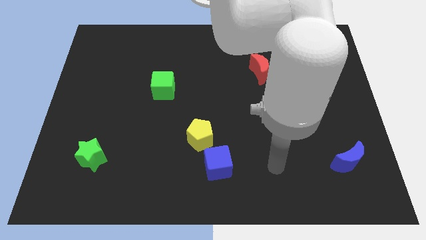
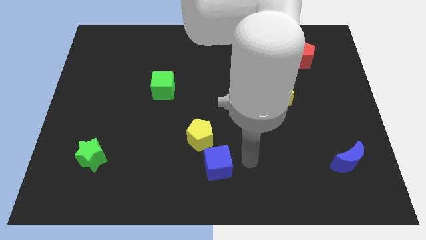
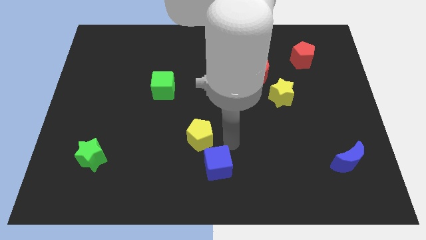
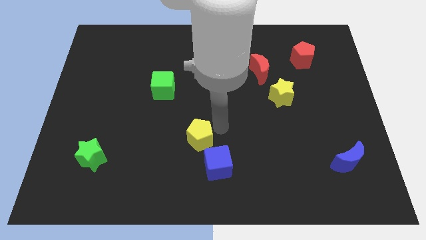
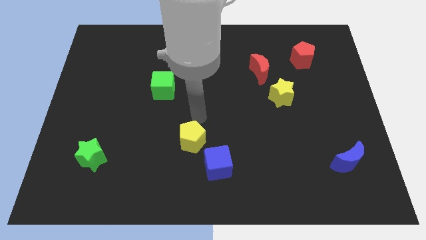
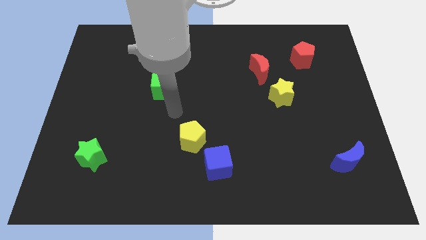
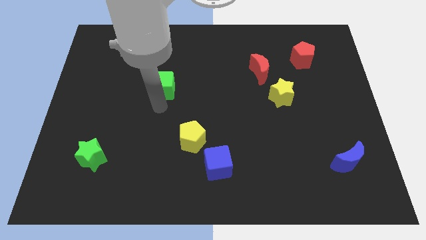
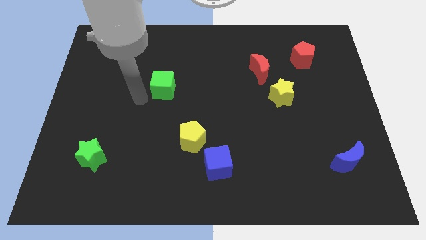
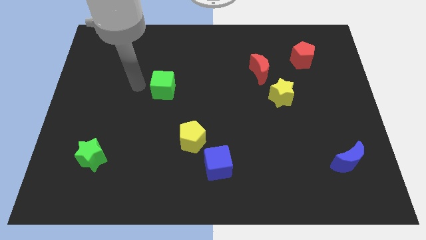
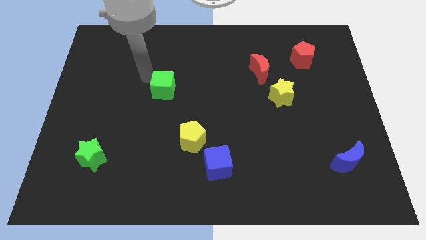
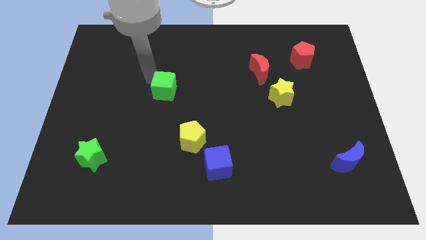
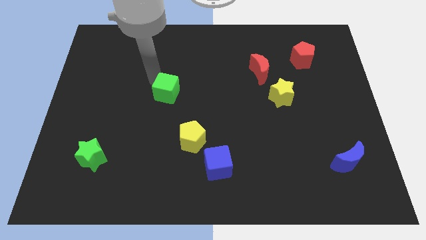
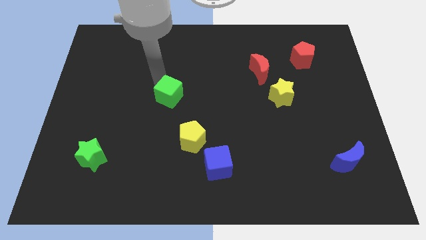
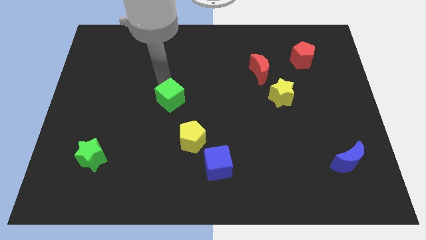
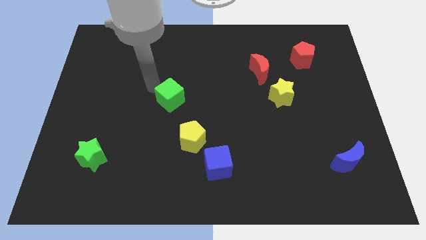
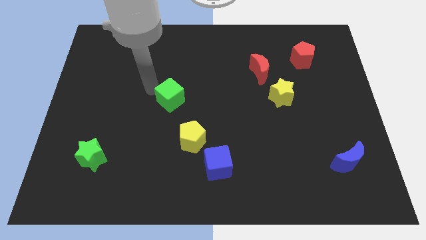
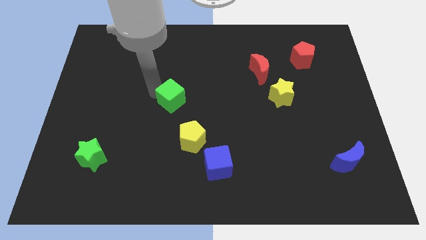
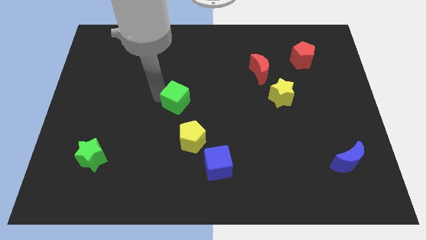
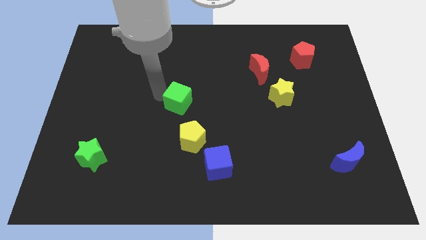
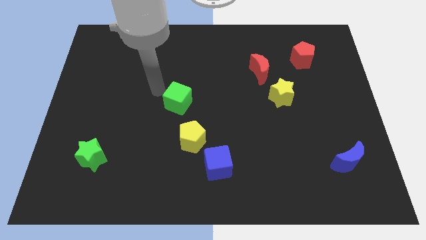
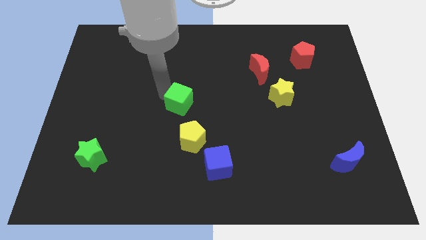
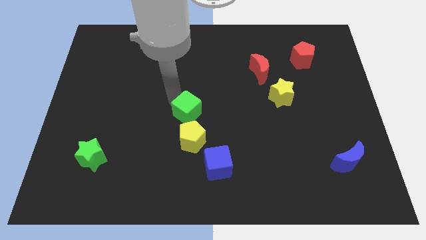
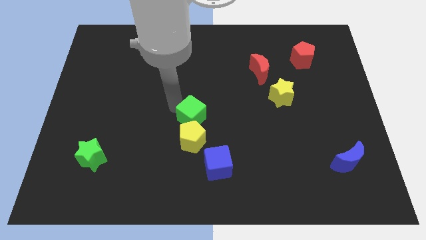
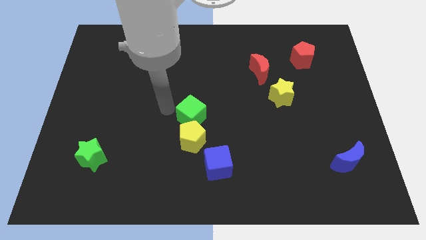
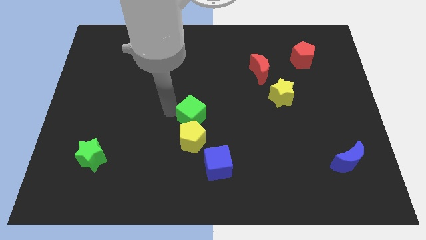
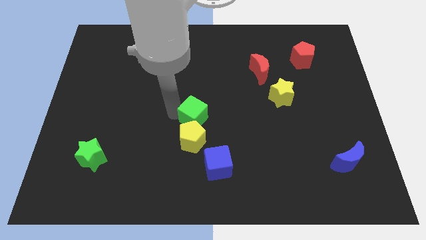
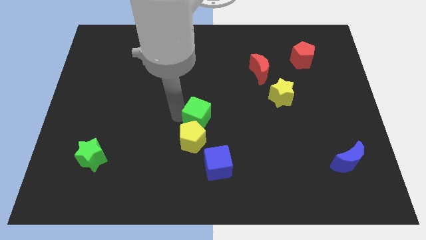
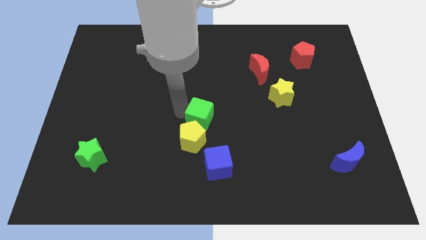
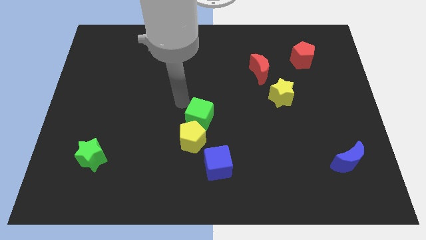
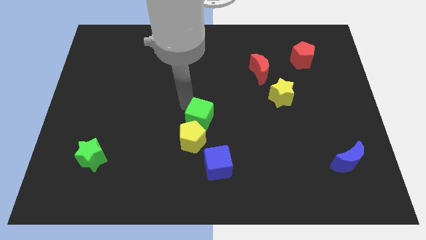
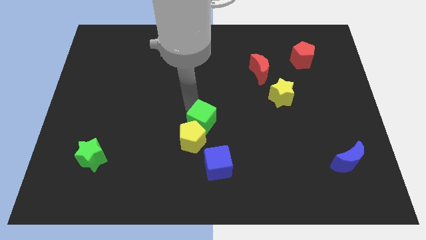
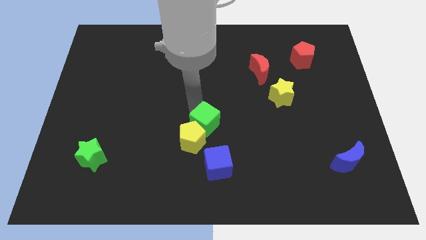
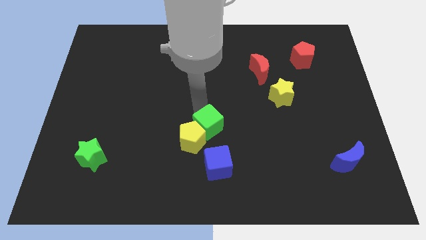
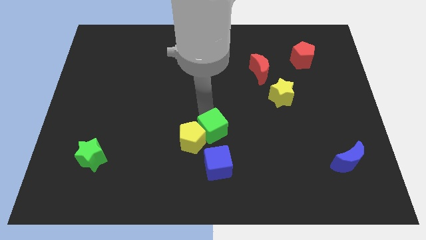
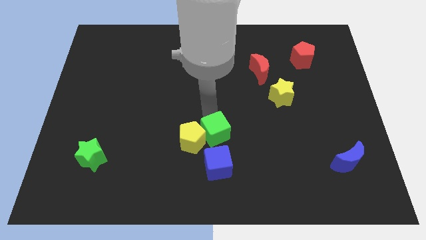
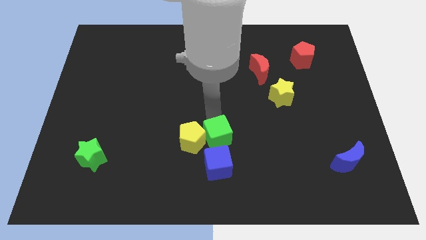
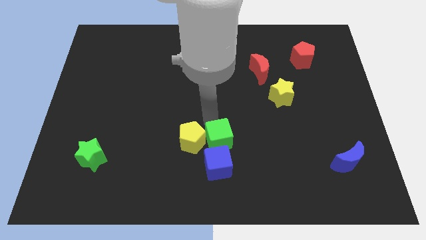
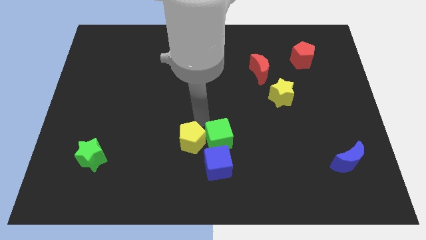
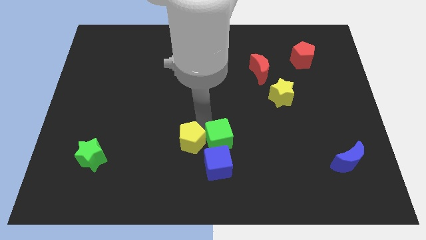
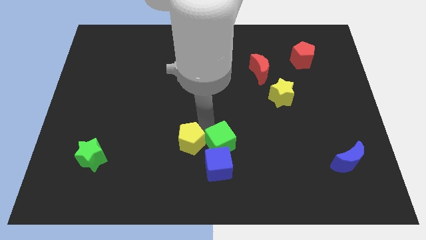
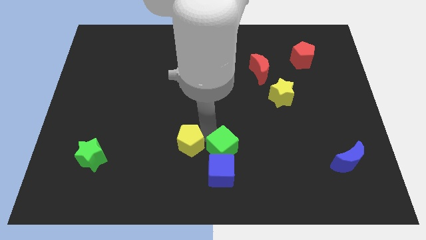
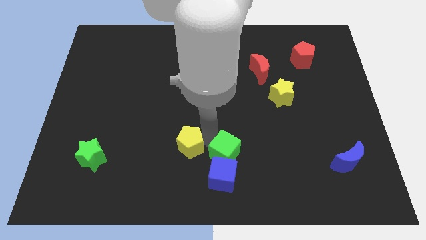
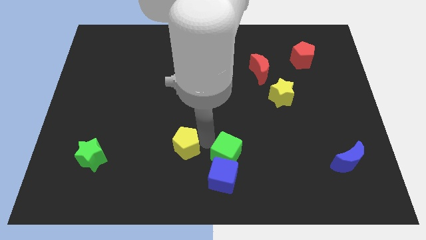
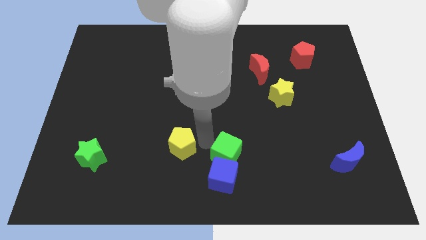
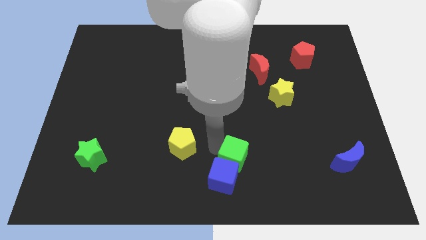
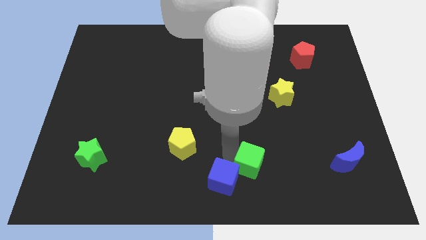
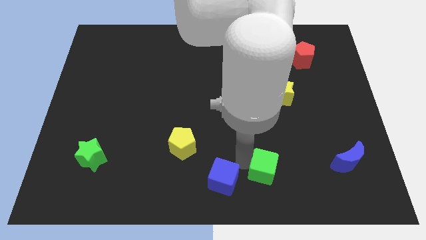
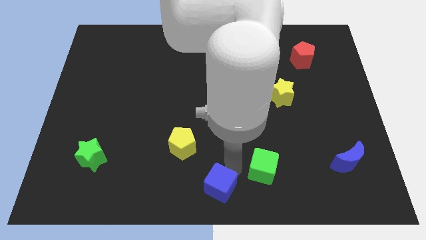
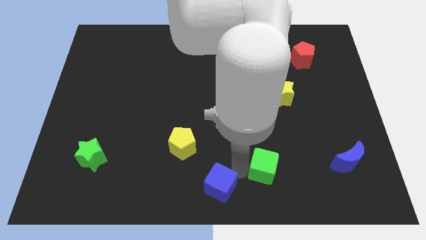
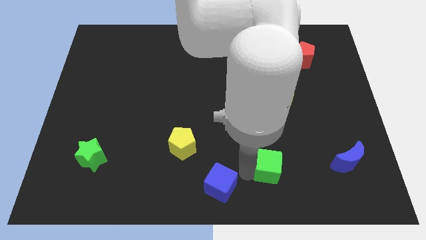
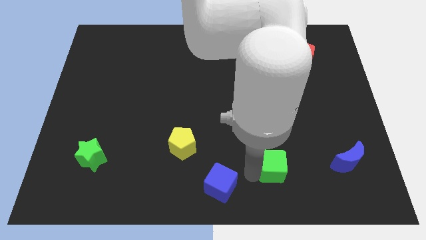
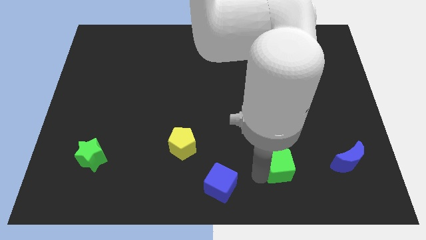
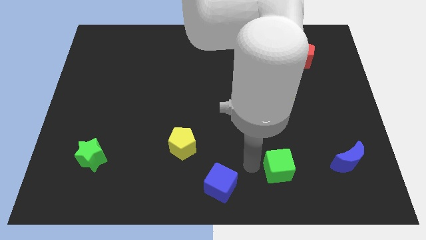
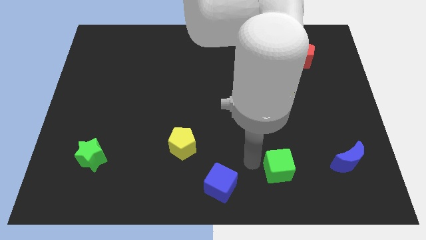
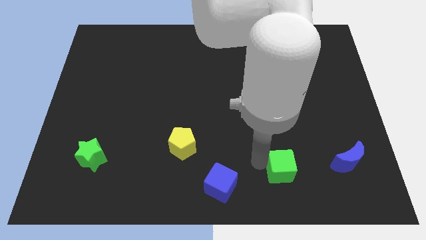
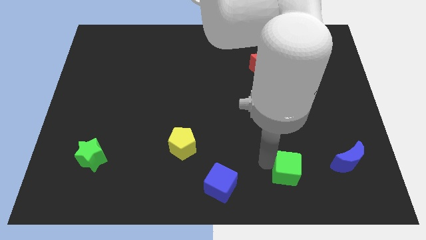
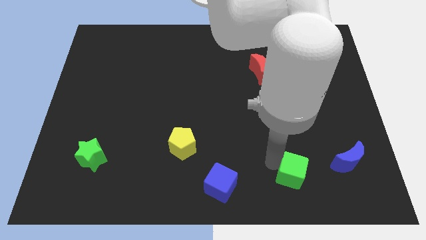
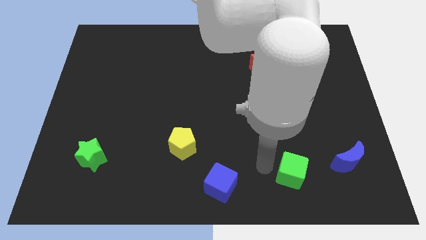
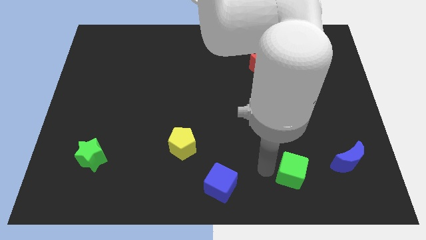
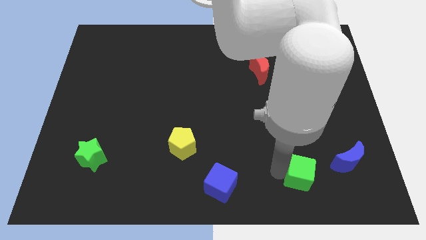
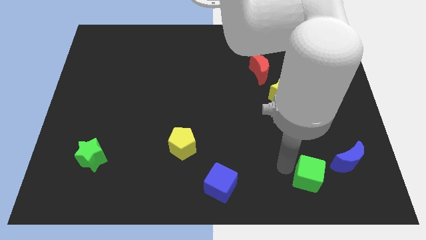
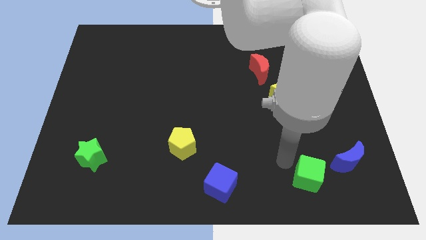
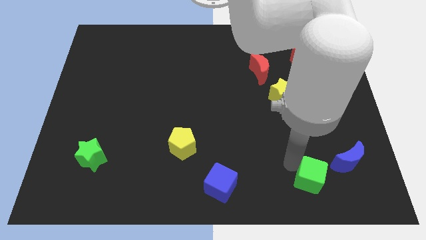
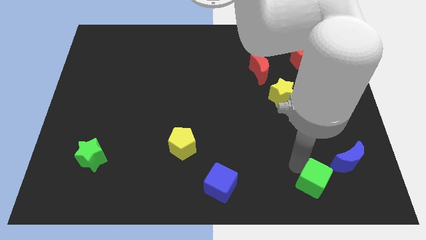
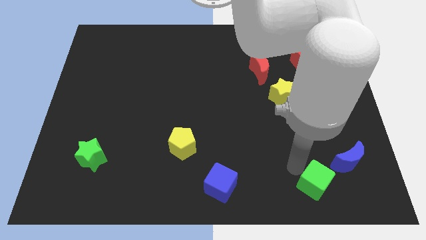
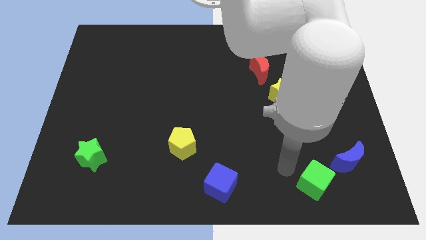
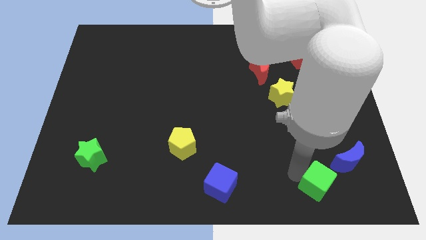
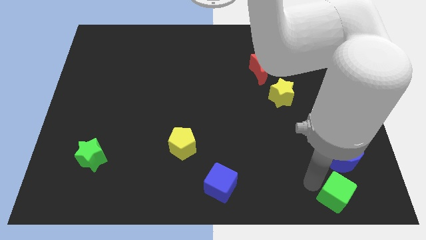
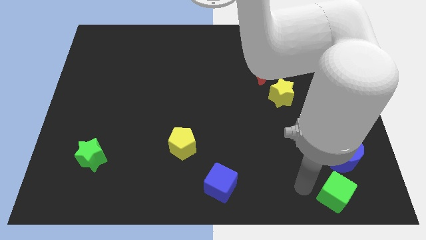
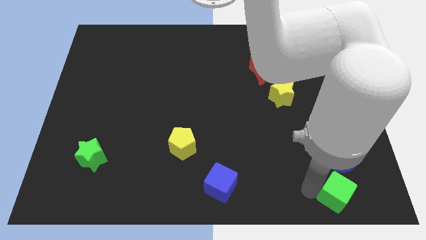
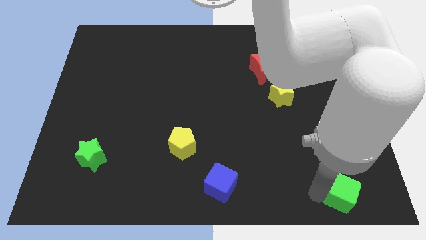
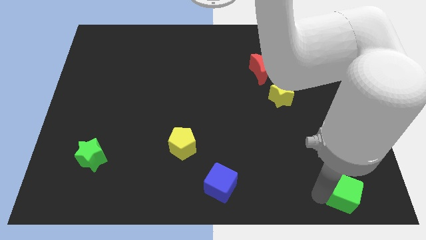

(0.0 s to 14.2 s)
put the green cube to the bottom right of the board
